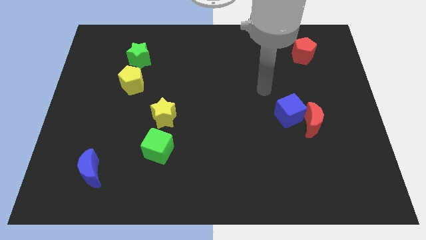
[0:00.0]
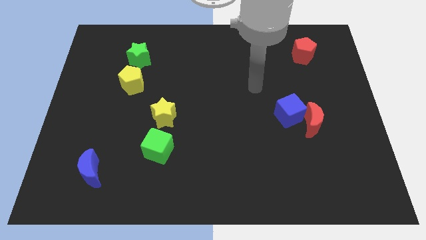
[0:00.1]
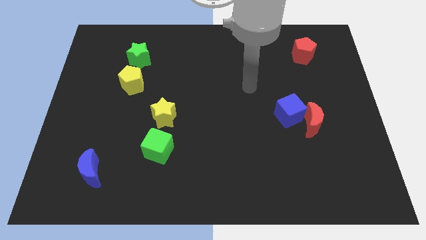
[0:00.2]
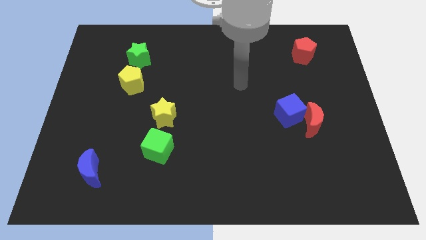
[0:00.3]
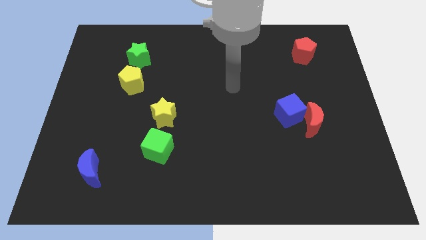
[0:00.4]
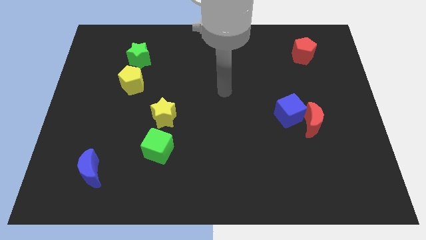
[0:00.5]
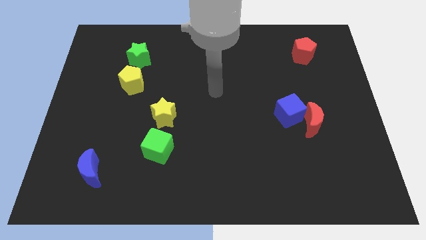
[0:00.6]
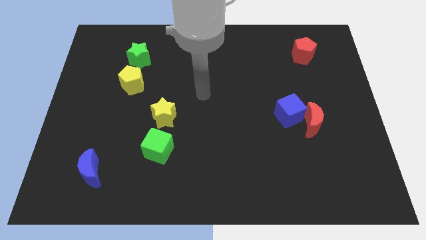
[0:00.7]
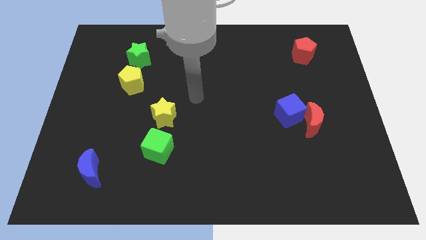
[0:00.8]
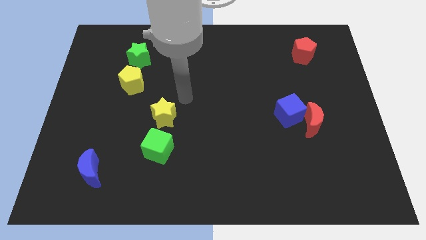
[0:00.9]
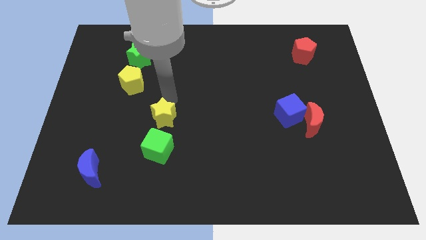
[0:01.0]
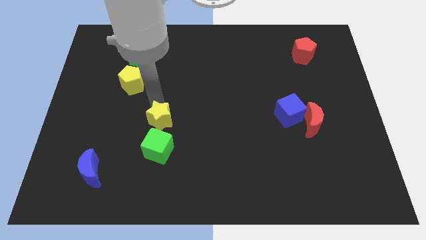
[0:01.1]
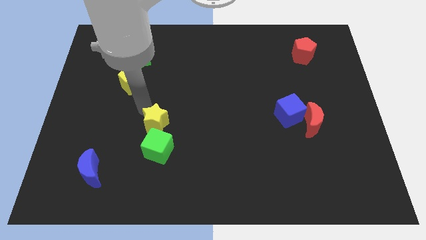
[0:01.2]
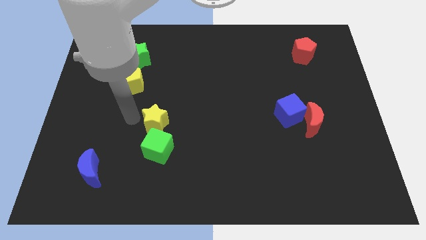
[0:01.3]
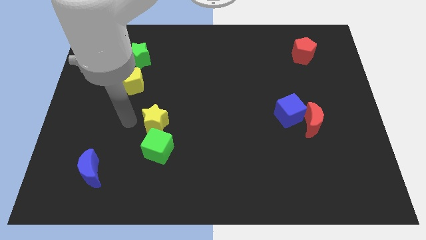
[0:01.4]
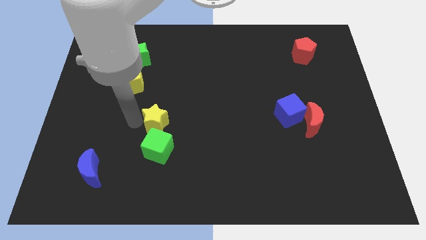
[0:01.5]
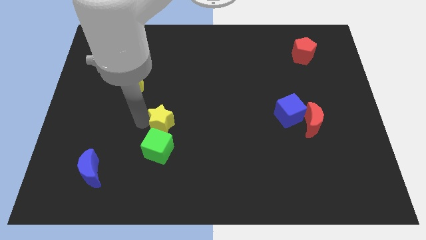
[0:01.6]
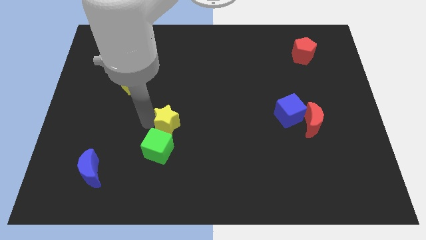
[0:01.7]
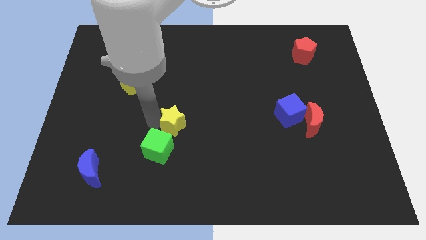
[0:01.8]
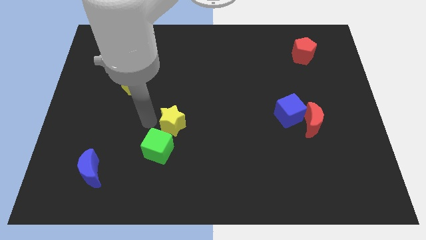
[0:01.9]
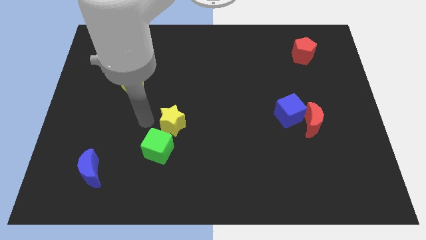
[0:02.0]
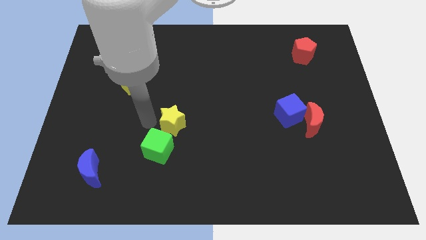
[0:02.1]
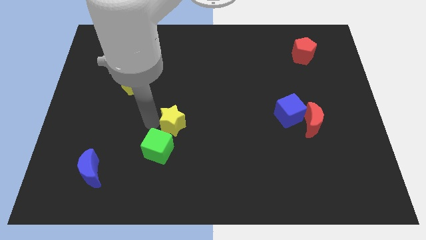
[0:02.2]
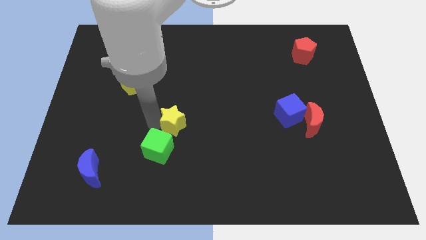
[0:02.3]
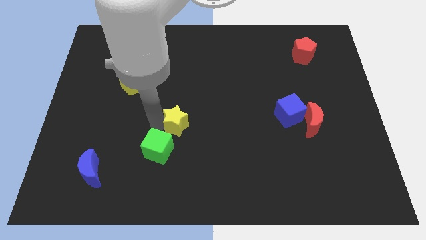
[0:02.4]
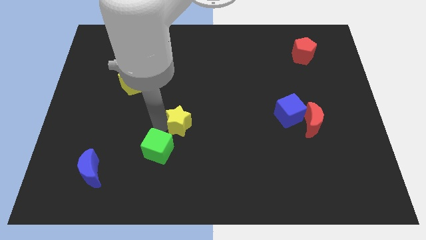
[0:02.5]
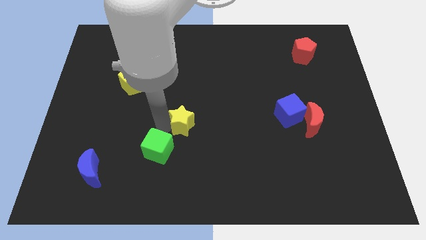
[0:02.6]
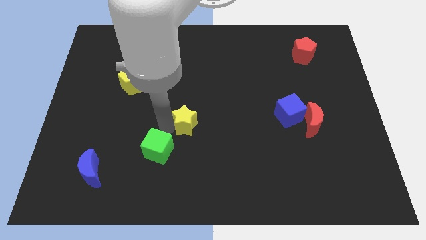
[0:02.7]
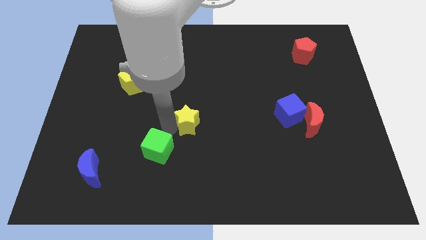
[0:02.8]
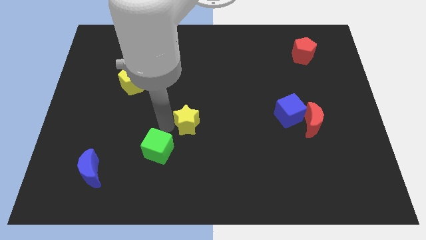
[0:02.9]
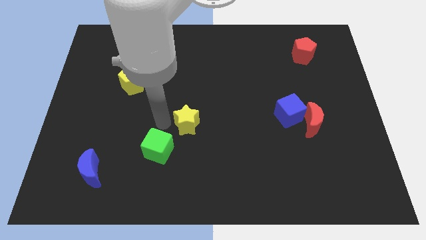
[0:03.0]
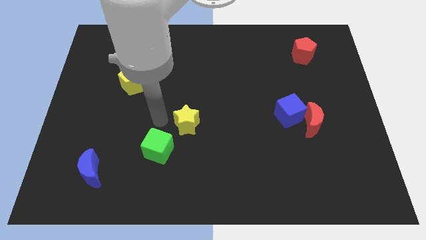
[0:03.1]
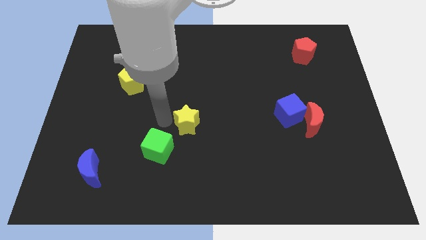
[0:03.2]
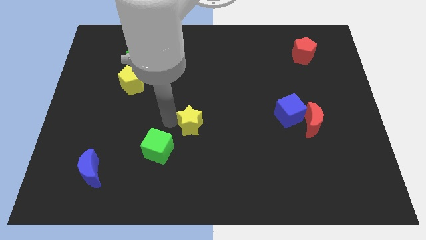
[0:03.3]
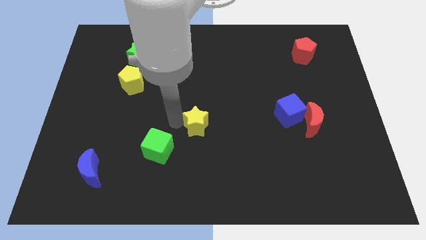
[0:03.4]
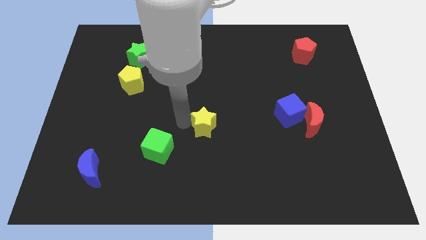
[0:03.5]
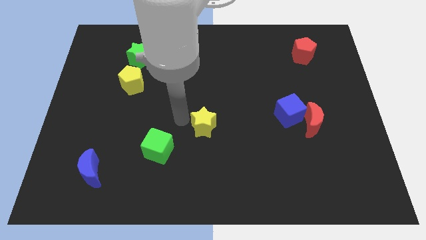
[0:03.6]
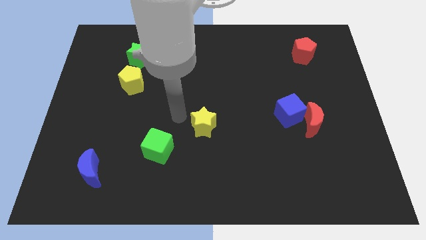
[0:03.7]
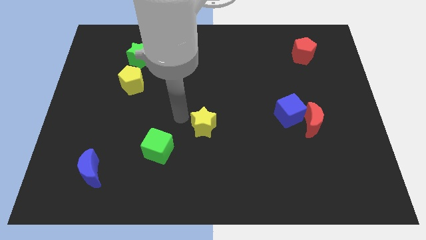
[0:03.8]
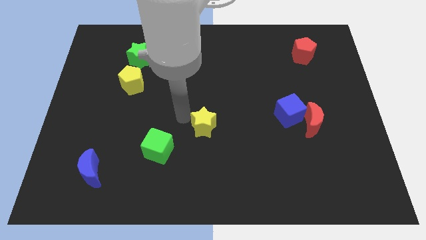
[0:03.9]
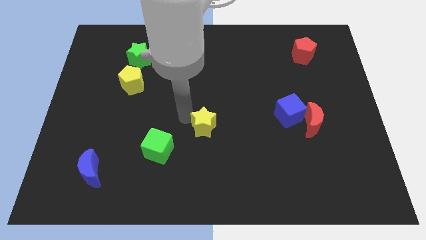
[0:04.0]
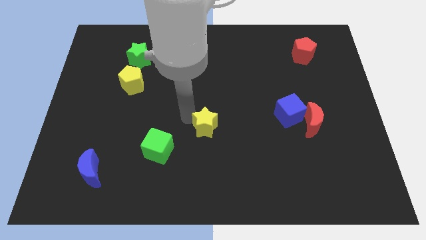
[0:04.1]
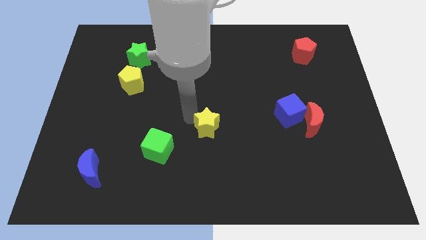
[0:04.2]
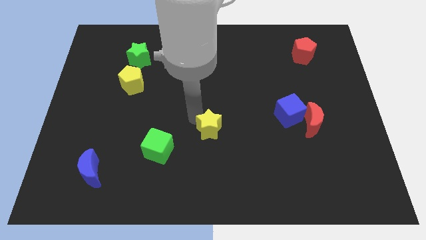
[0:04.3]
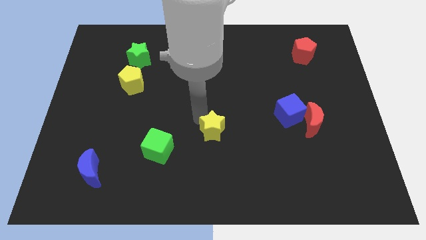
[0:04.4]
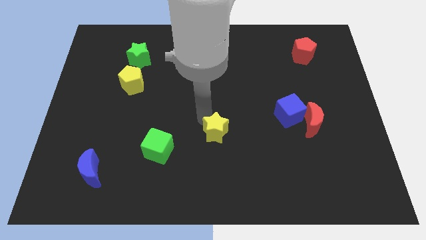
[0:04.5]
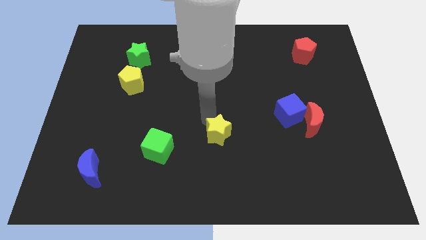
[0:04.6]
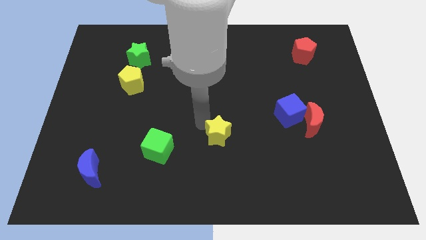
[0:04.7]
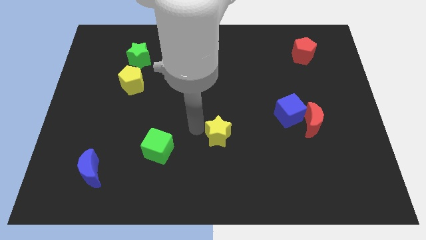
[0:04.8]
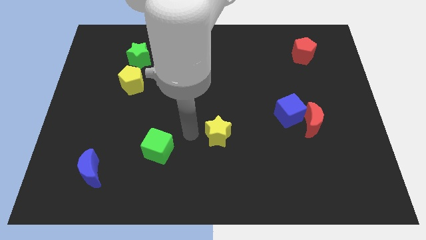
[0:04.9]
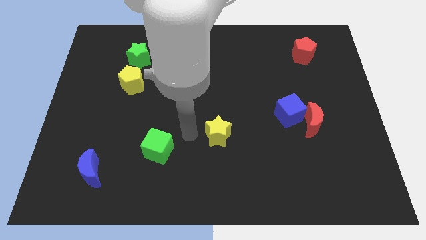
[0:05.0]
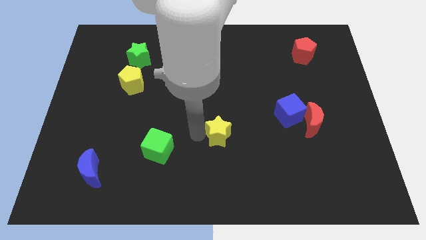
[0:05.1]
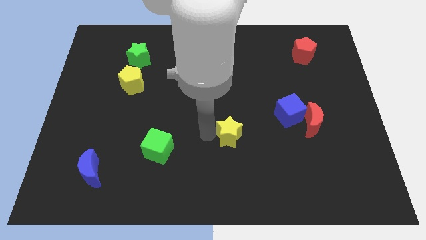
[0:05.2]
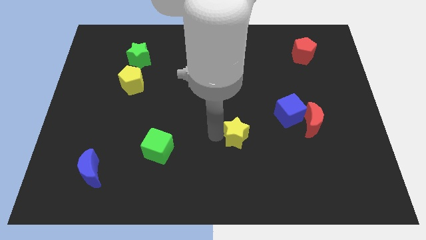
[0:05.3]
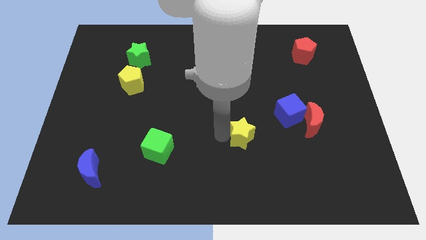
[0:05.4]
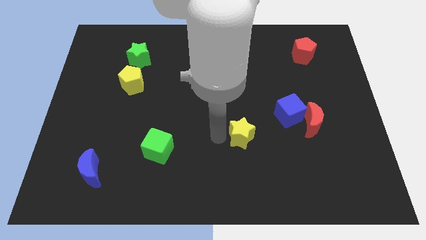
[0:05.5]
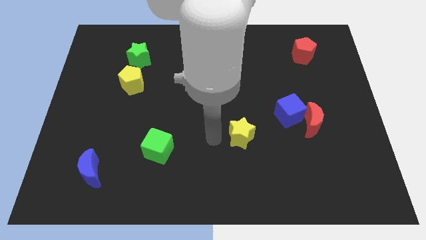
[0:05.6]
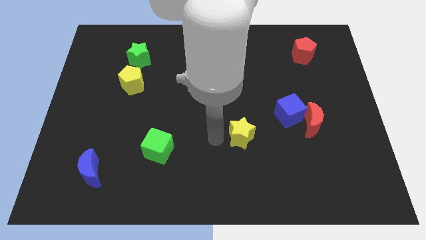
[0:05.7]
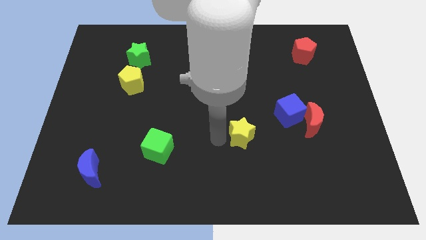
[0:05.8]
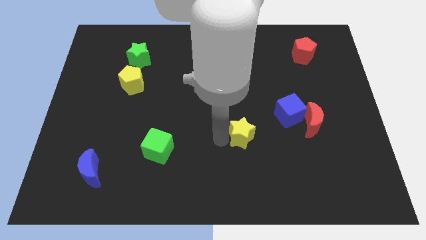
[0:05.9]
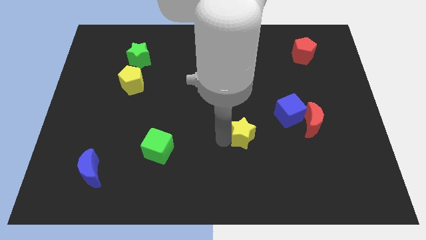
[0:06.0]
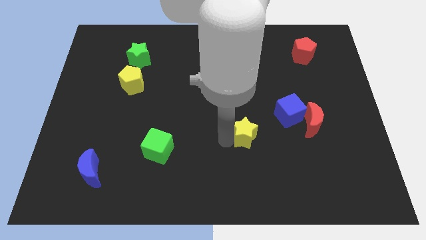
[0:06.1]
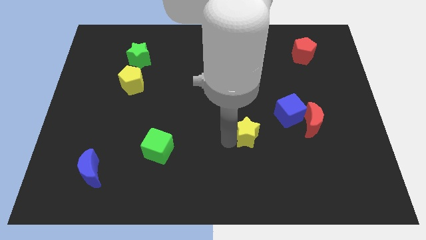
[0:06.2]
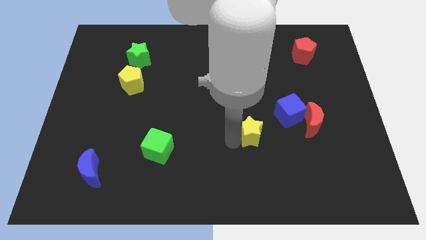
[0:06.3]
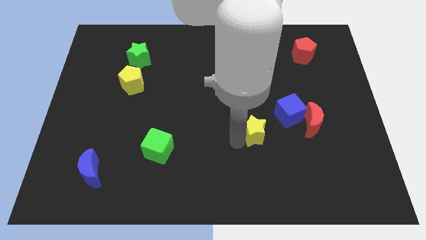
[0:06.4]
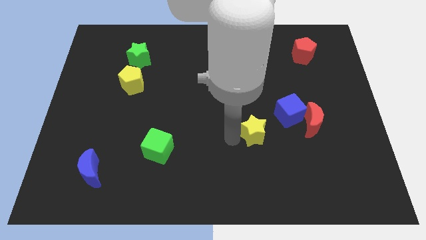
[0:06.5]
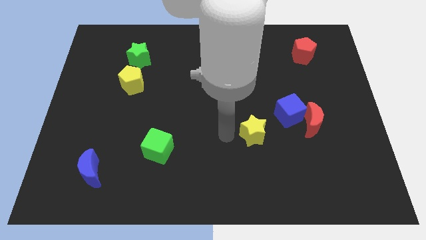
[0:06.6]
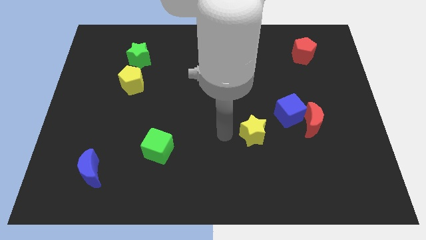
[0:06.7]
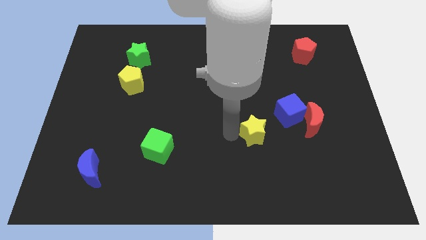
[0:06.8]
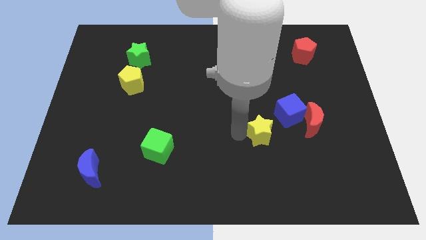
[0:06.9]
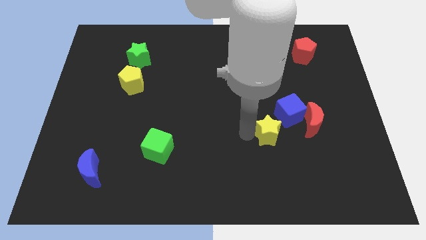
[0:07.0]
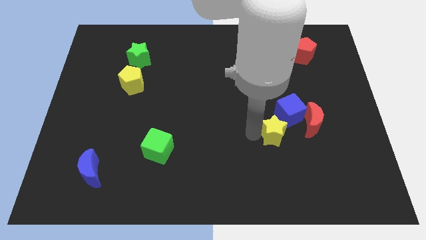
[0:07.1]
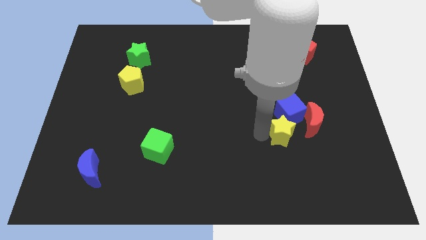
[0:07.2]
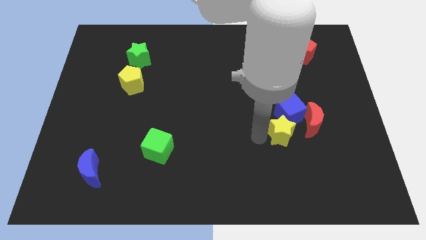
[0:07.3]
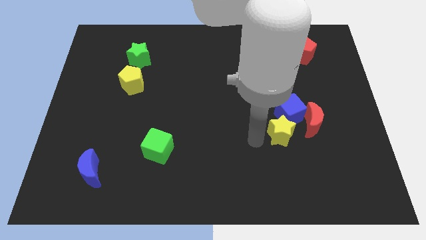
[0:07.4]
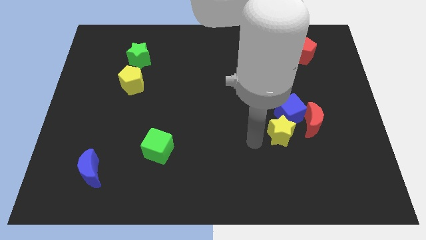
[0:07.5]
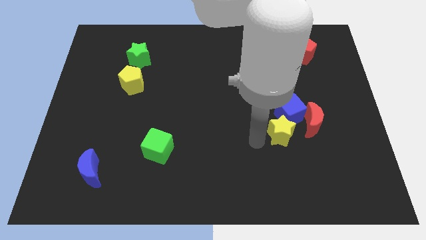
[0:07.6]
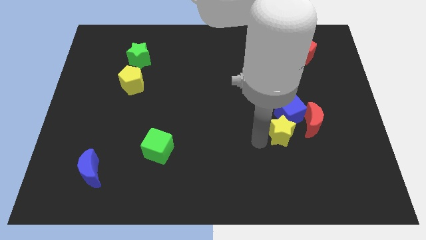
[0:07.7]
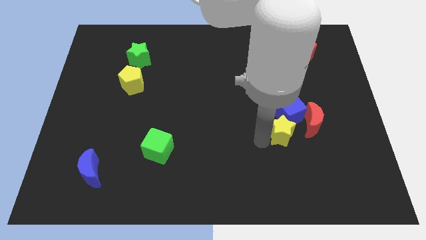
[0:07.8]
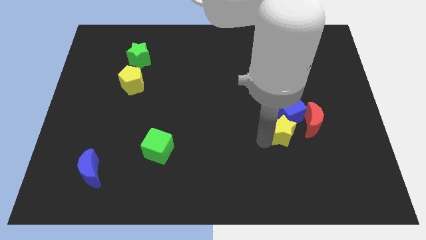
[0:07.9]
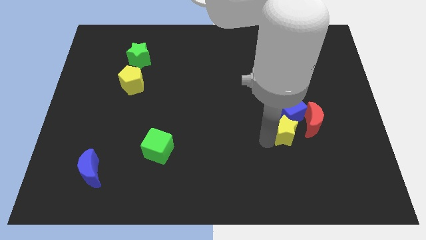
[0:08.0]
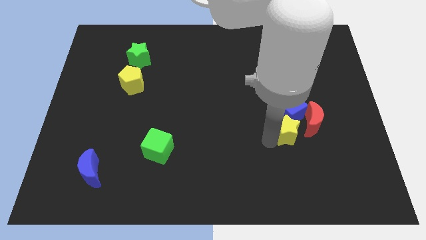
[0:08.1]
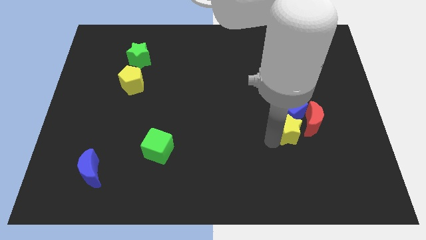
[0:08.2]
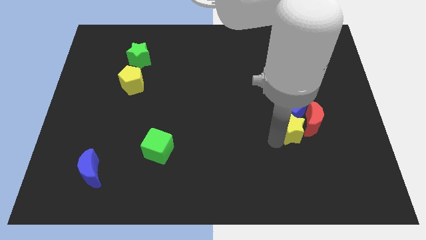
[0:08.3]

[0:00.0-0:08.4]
put the yellow star towards the red moon
